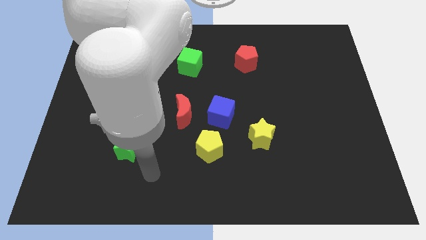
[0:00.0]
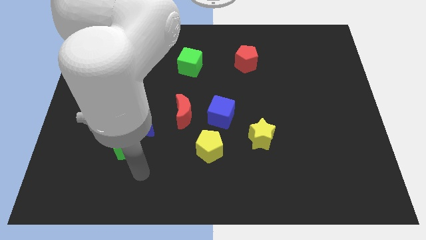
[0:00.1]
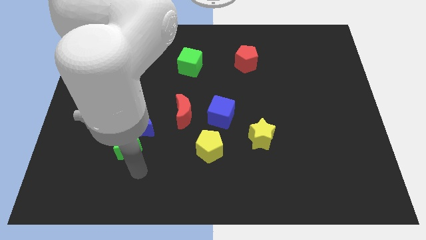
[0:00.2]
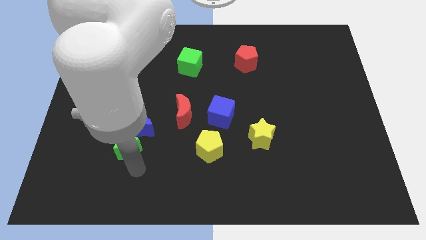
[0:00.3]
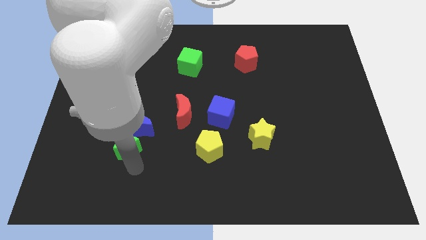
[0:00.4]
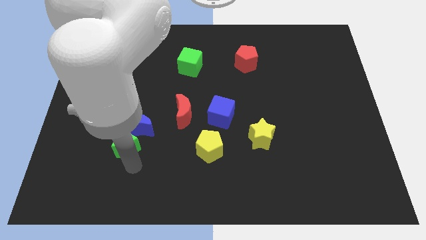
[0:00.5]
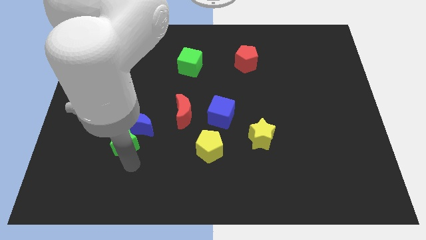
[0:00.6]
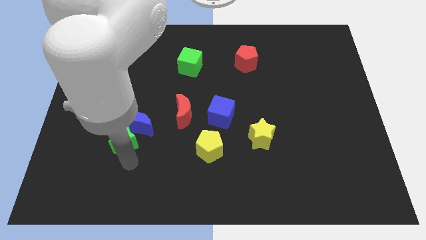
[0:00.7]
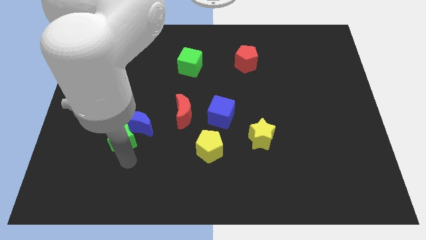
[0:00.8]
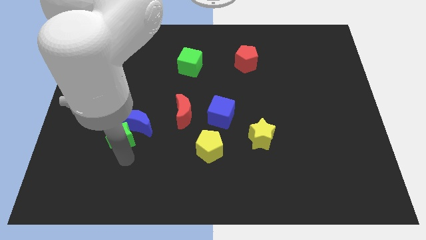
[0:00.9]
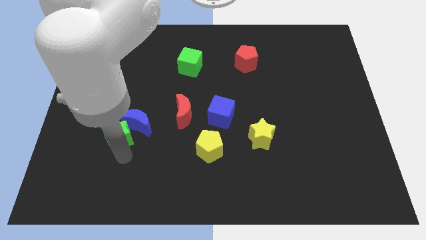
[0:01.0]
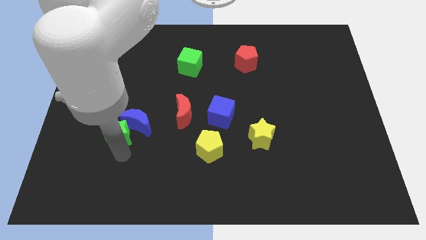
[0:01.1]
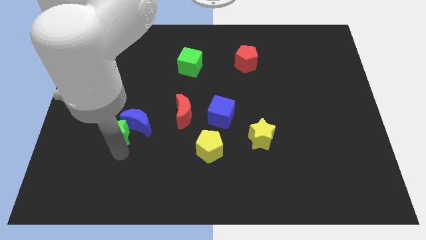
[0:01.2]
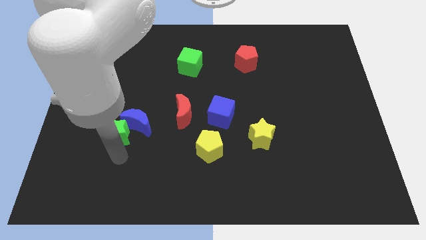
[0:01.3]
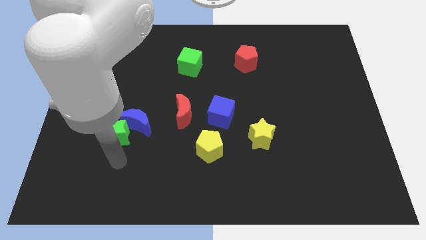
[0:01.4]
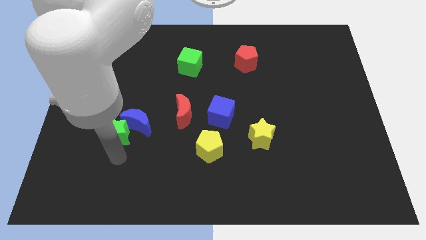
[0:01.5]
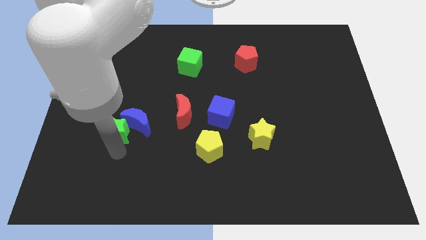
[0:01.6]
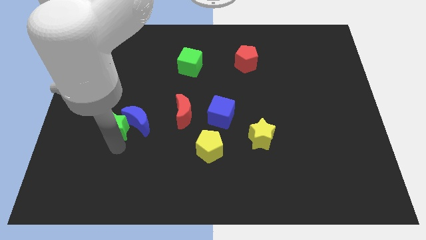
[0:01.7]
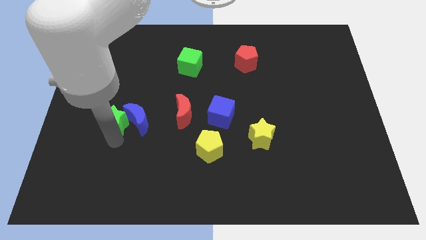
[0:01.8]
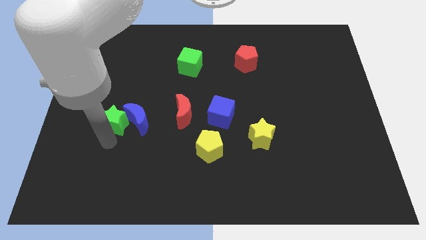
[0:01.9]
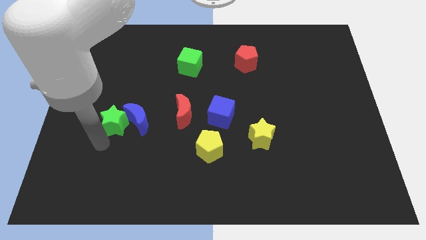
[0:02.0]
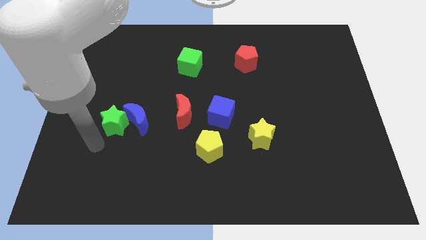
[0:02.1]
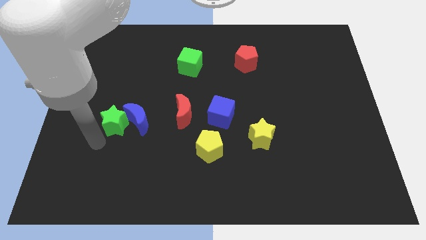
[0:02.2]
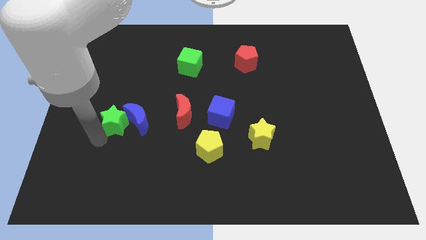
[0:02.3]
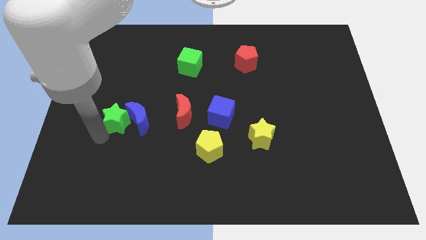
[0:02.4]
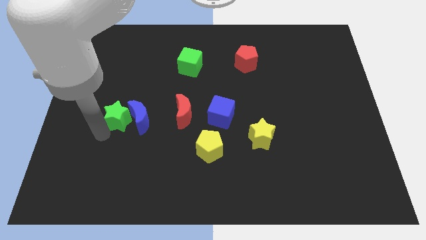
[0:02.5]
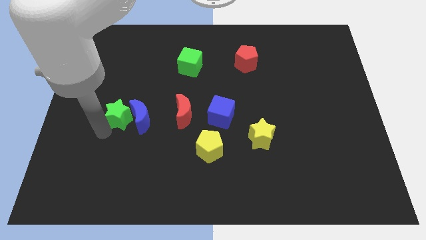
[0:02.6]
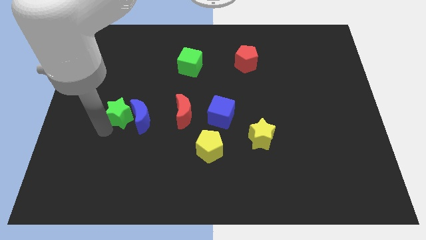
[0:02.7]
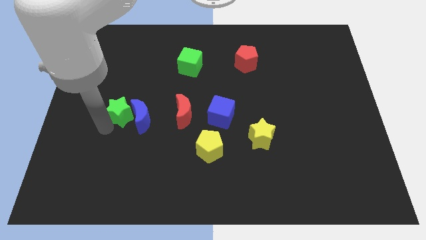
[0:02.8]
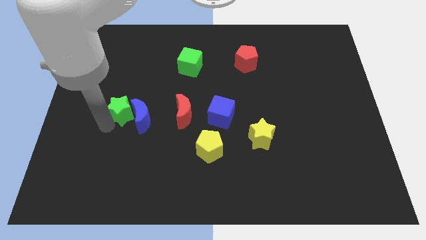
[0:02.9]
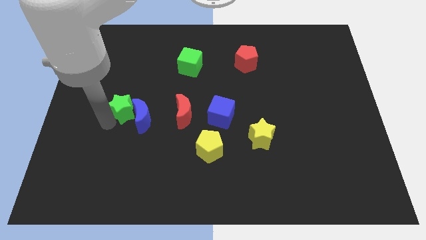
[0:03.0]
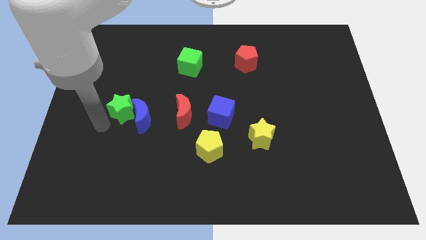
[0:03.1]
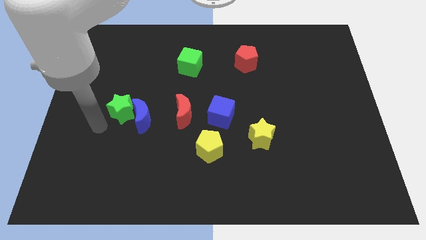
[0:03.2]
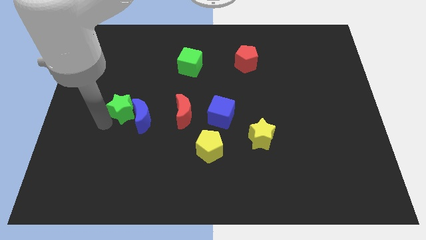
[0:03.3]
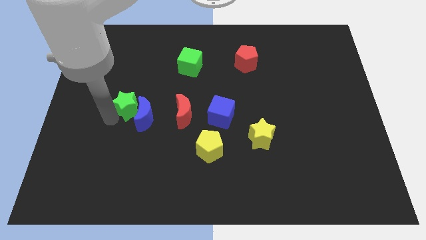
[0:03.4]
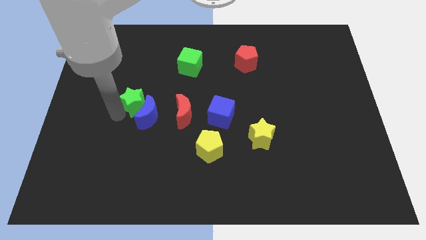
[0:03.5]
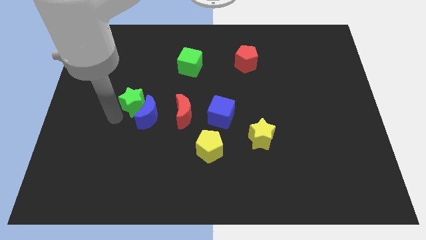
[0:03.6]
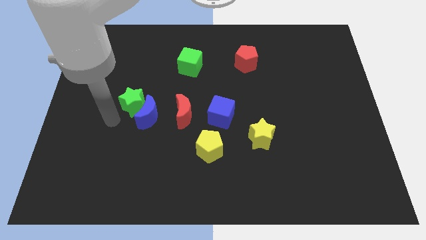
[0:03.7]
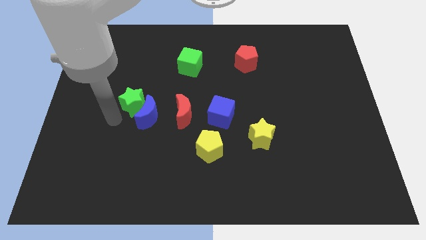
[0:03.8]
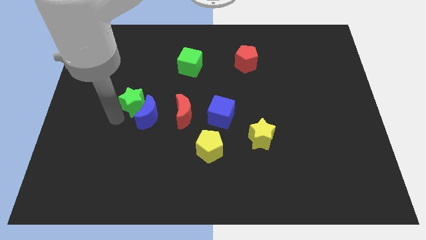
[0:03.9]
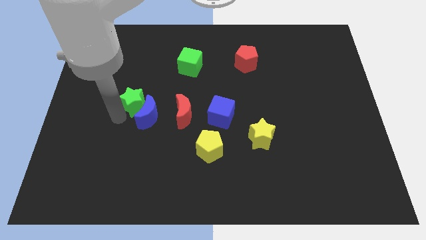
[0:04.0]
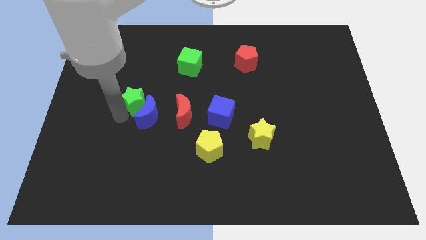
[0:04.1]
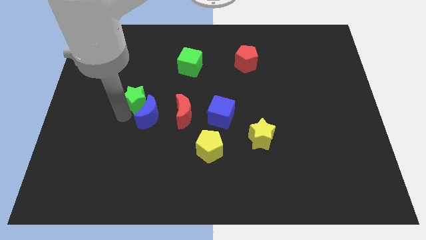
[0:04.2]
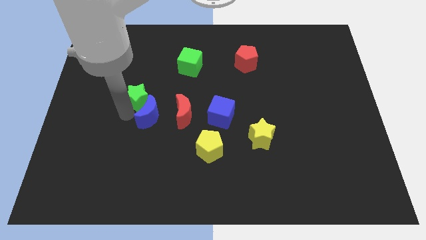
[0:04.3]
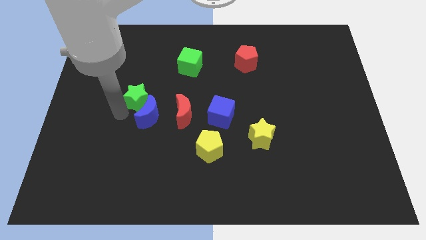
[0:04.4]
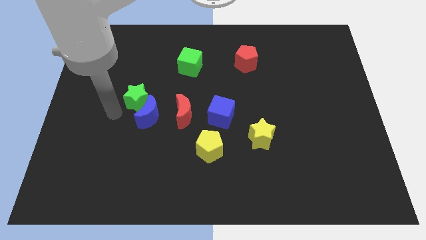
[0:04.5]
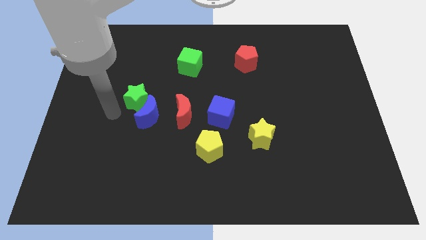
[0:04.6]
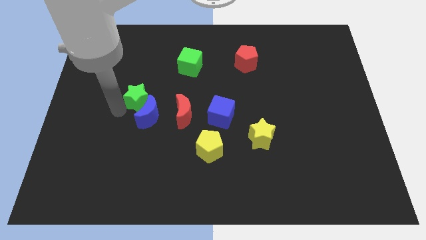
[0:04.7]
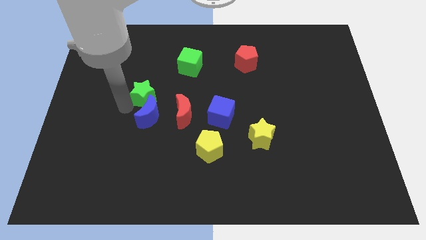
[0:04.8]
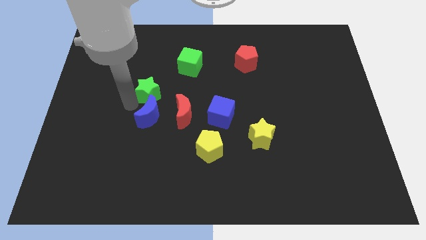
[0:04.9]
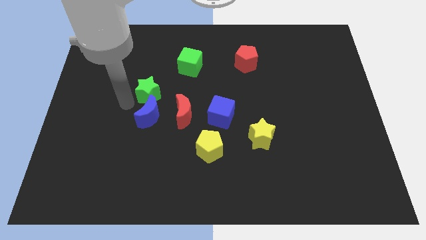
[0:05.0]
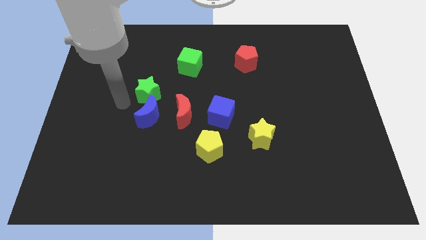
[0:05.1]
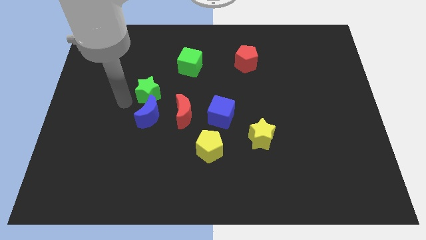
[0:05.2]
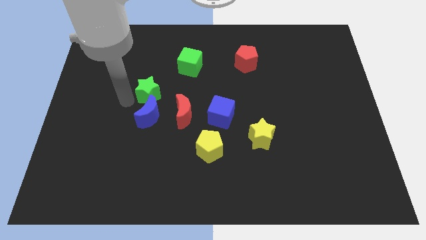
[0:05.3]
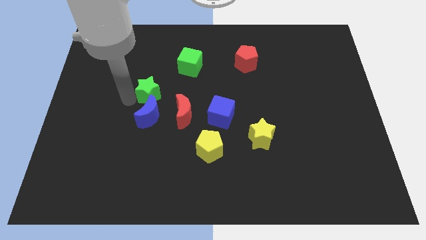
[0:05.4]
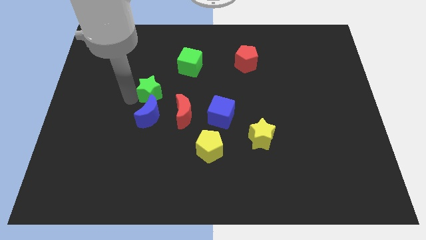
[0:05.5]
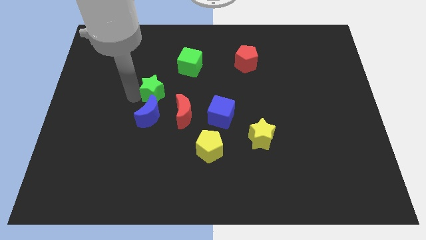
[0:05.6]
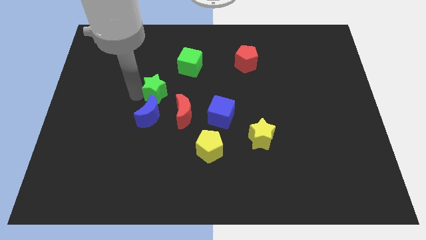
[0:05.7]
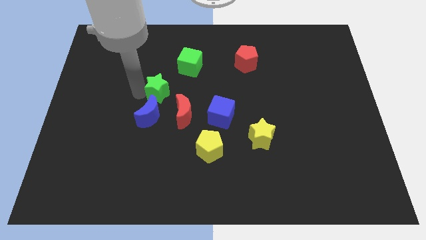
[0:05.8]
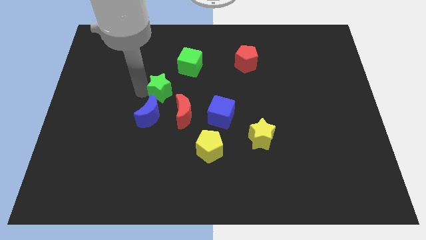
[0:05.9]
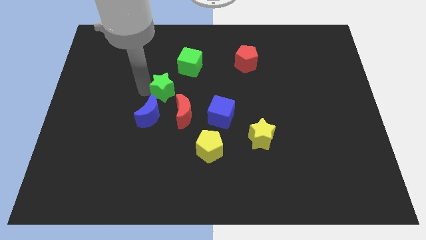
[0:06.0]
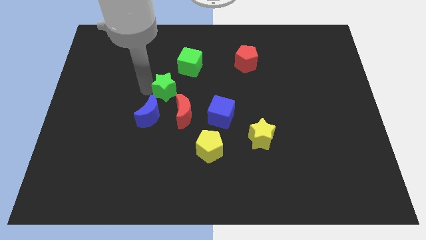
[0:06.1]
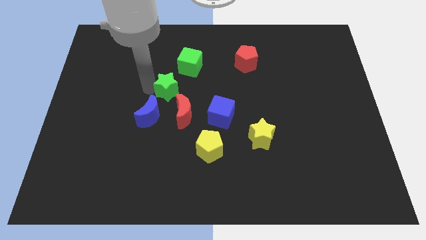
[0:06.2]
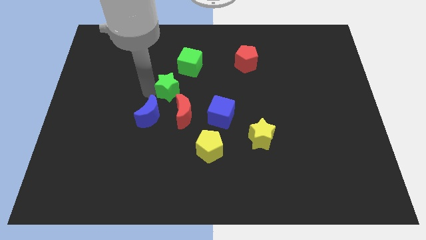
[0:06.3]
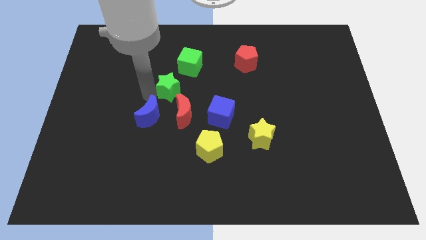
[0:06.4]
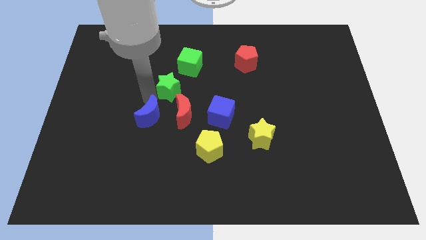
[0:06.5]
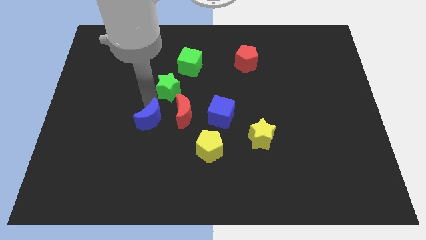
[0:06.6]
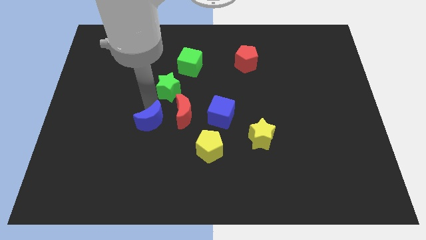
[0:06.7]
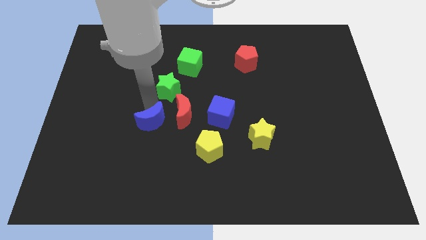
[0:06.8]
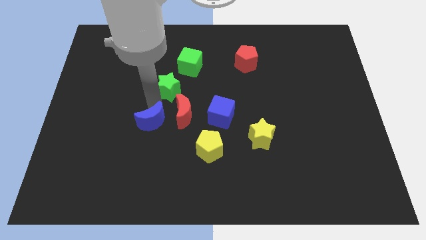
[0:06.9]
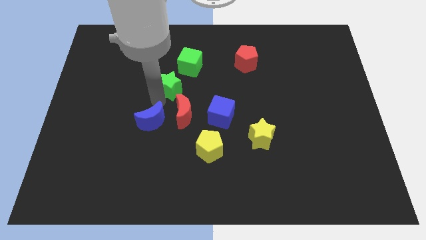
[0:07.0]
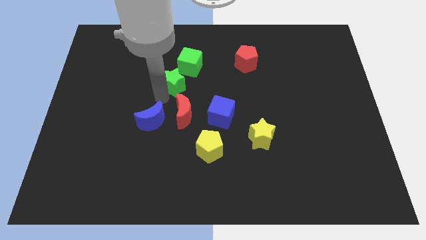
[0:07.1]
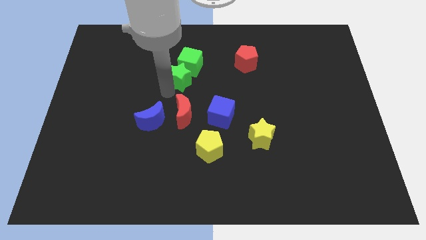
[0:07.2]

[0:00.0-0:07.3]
put the green star next to the green cube
